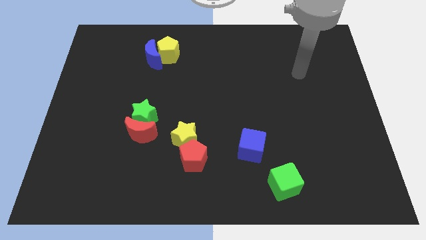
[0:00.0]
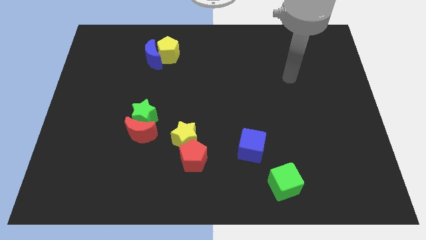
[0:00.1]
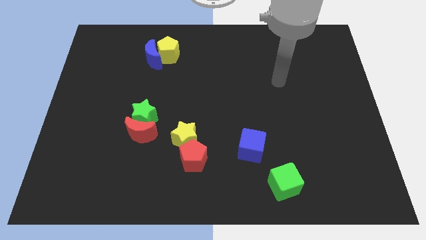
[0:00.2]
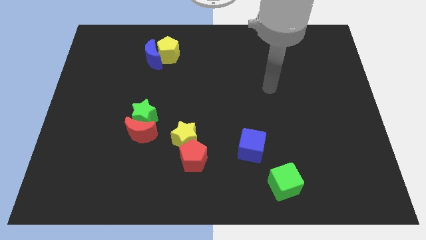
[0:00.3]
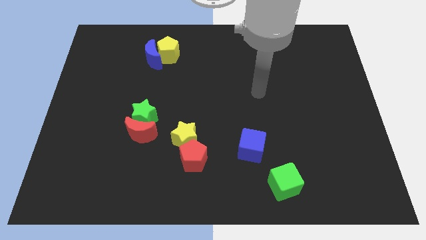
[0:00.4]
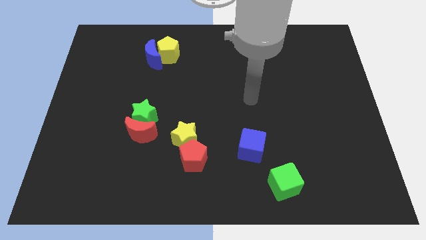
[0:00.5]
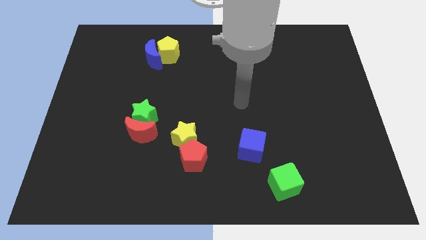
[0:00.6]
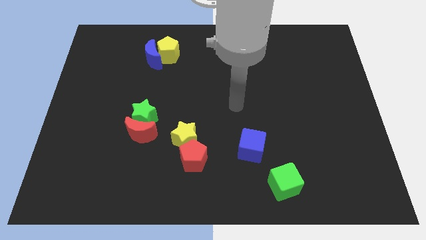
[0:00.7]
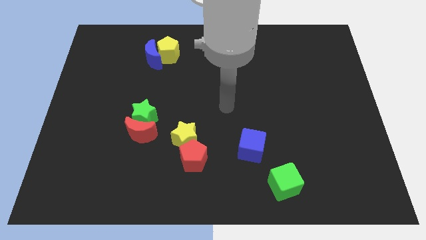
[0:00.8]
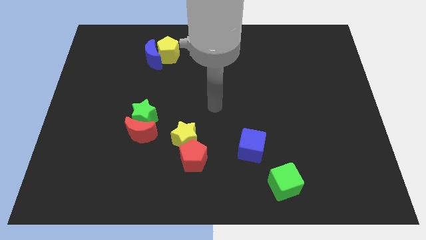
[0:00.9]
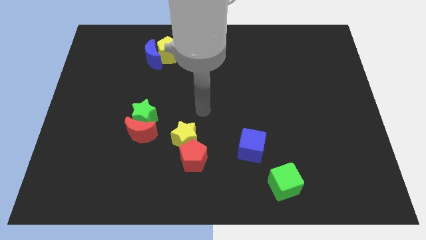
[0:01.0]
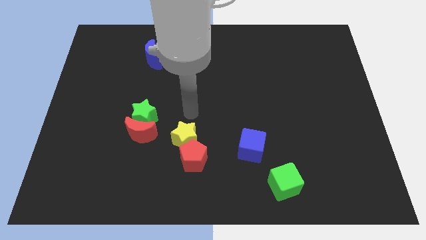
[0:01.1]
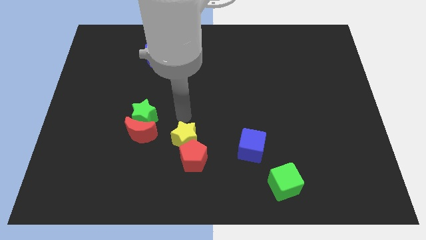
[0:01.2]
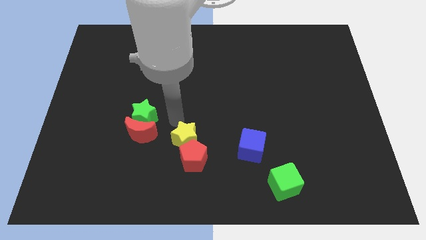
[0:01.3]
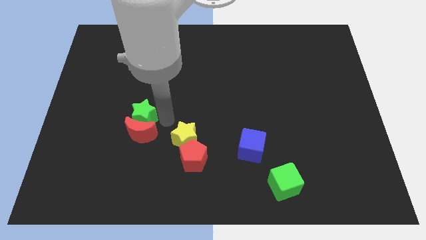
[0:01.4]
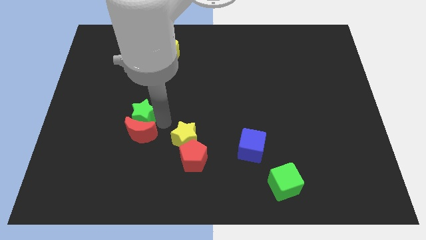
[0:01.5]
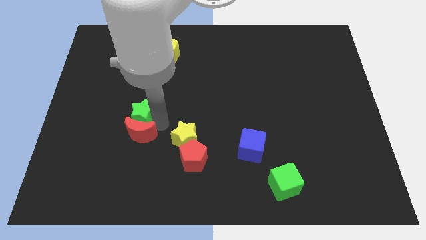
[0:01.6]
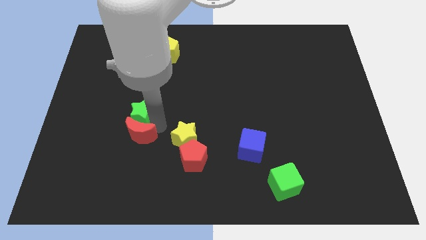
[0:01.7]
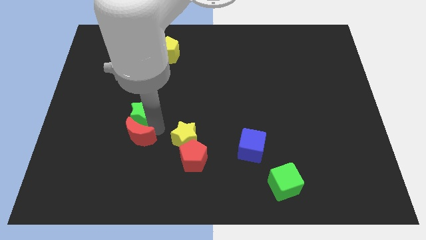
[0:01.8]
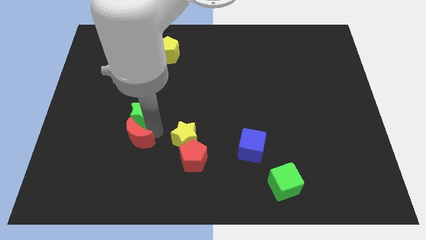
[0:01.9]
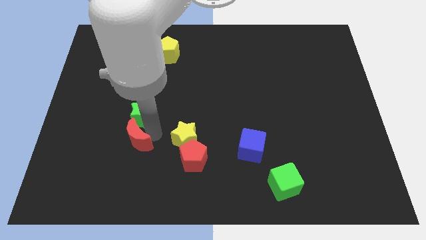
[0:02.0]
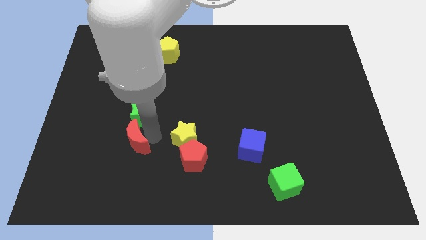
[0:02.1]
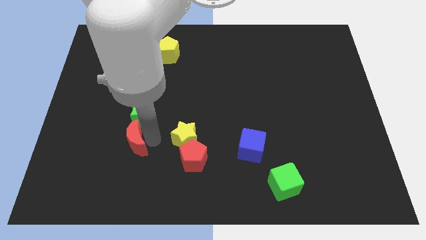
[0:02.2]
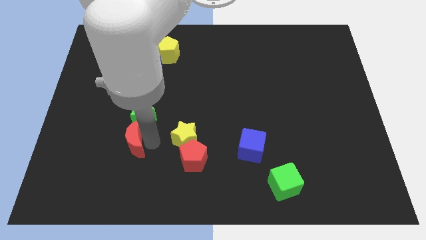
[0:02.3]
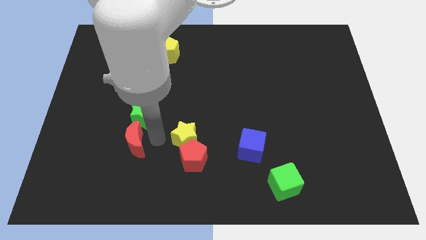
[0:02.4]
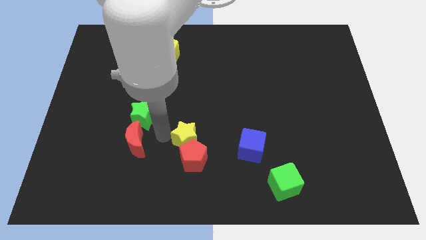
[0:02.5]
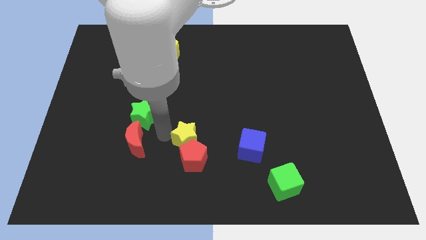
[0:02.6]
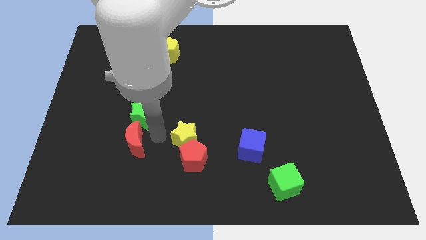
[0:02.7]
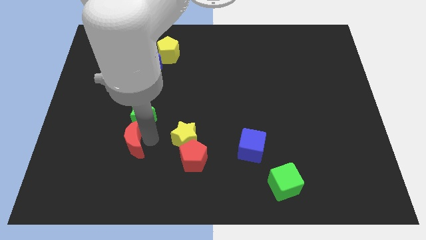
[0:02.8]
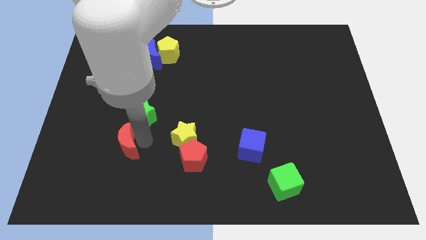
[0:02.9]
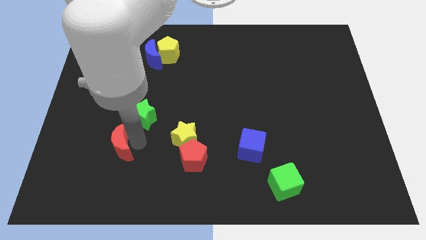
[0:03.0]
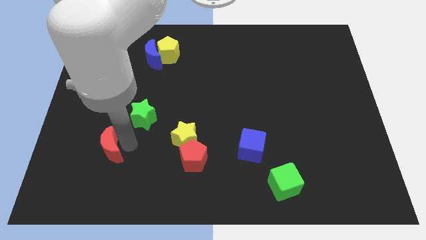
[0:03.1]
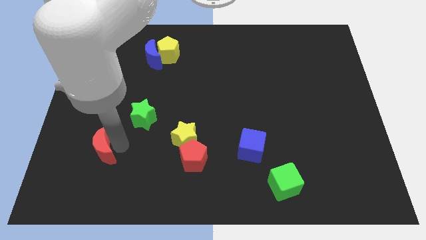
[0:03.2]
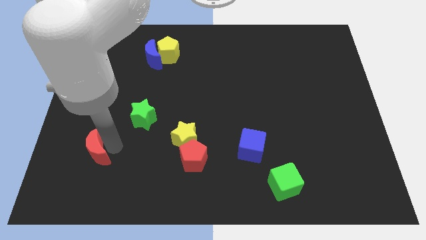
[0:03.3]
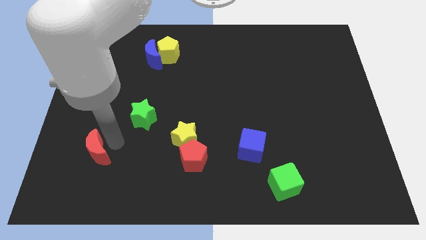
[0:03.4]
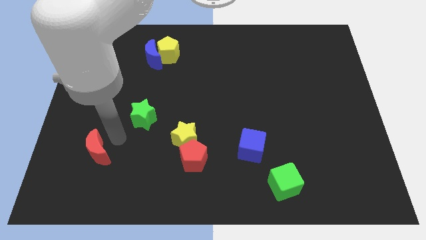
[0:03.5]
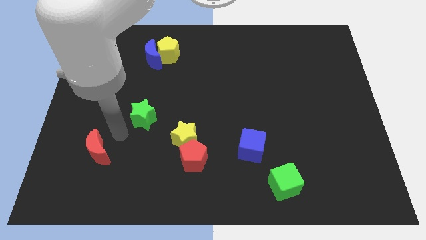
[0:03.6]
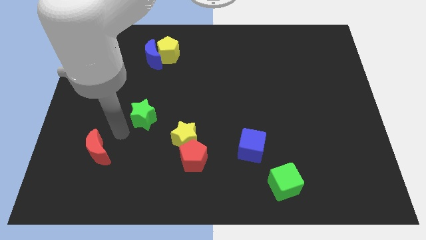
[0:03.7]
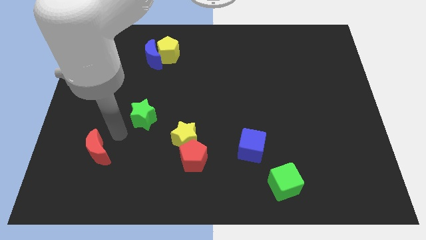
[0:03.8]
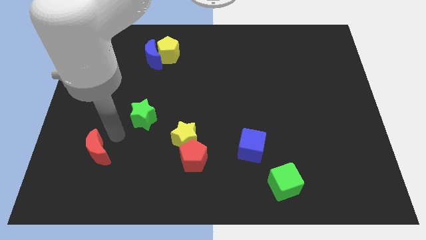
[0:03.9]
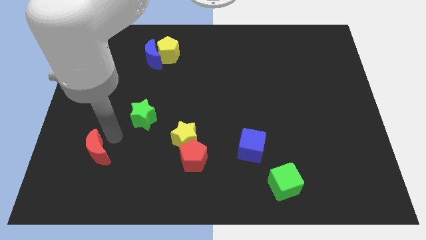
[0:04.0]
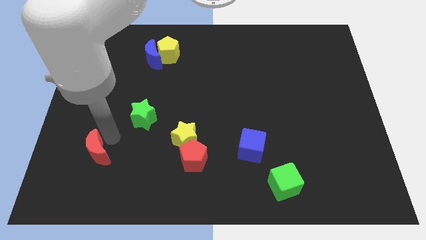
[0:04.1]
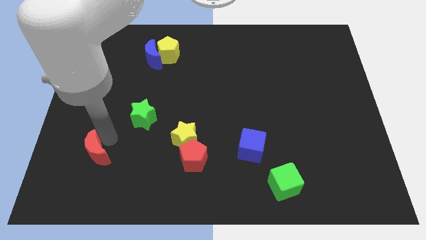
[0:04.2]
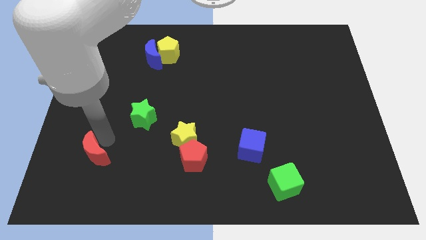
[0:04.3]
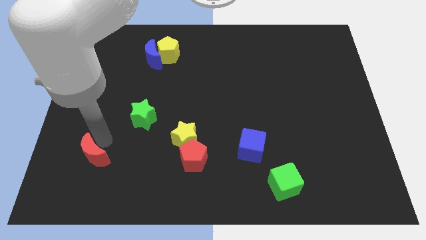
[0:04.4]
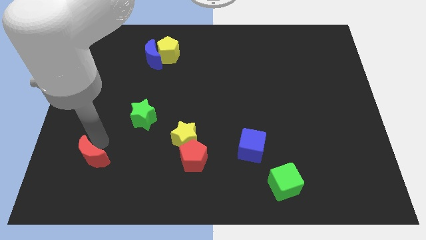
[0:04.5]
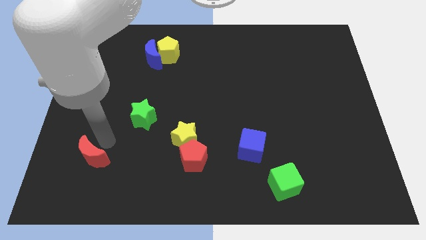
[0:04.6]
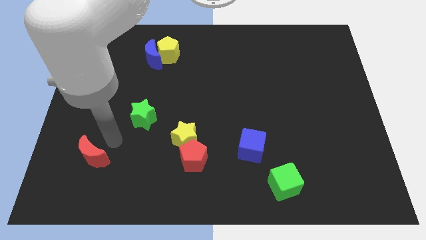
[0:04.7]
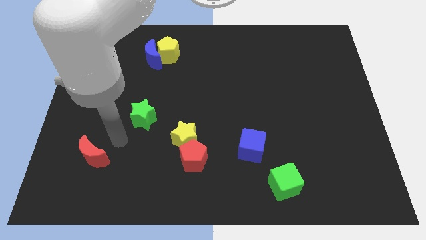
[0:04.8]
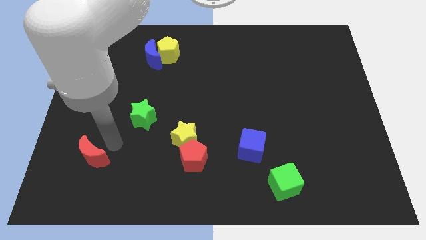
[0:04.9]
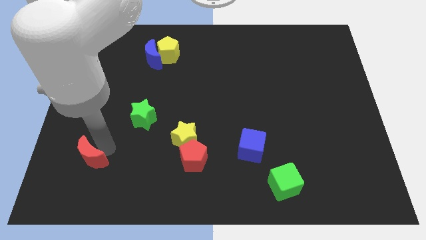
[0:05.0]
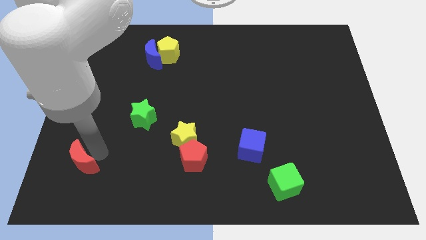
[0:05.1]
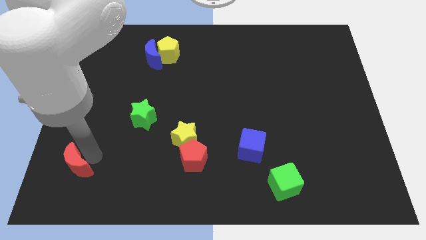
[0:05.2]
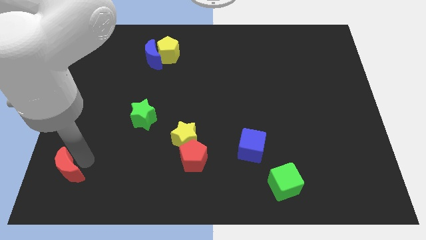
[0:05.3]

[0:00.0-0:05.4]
put the red moon to the lower left corner

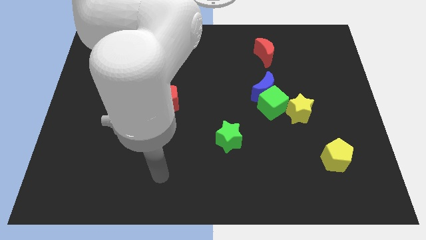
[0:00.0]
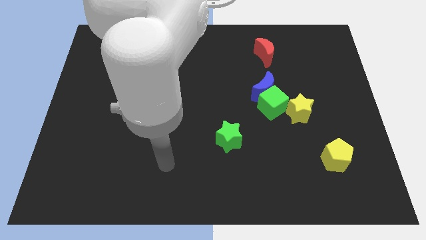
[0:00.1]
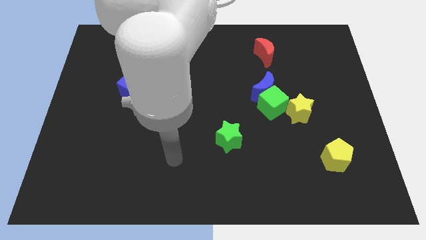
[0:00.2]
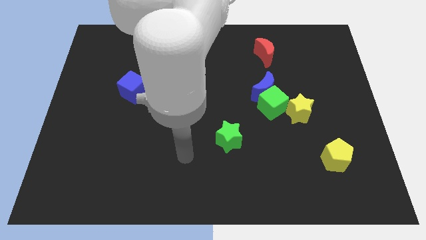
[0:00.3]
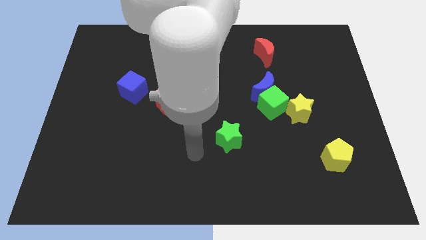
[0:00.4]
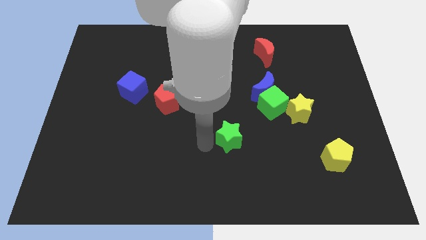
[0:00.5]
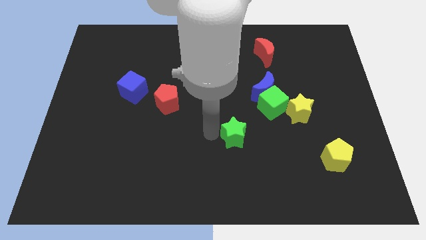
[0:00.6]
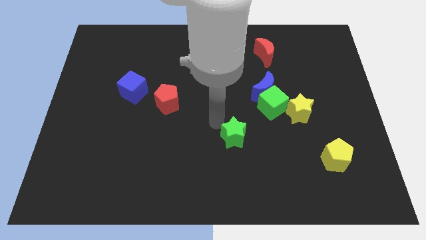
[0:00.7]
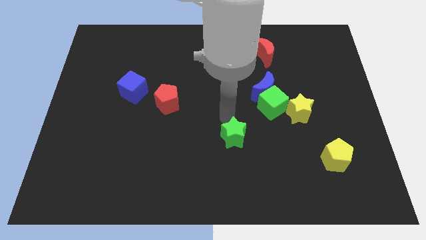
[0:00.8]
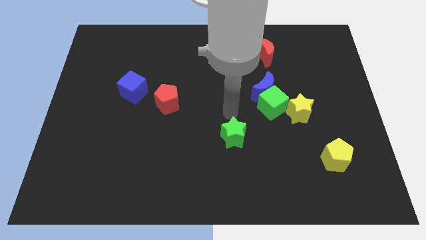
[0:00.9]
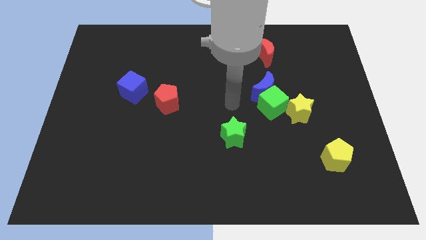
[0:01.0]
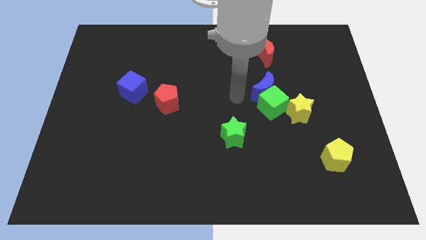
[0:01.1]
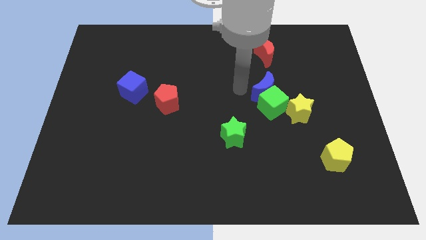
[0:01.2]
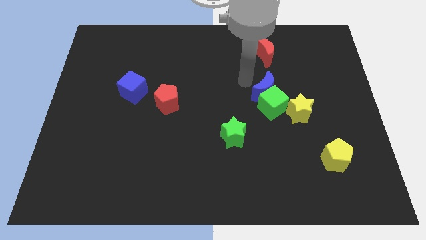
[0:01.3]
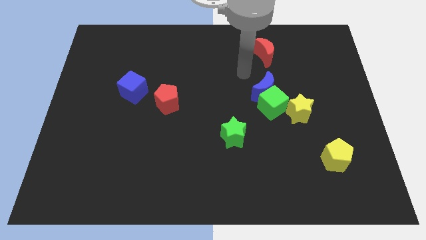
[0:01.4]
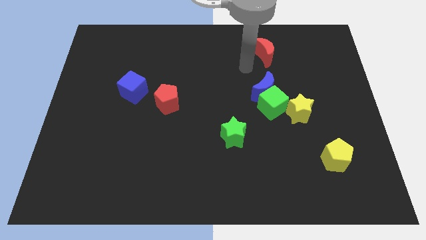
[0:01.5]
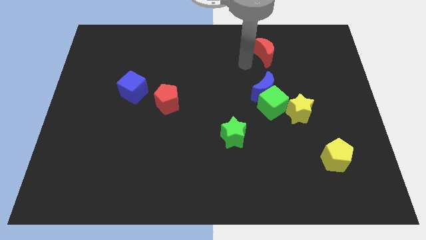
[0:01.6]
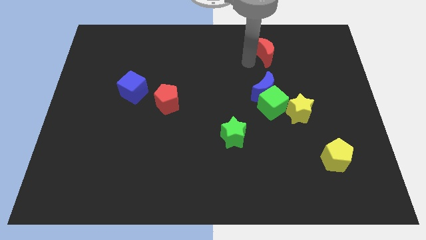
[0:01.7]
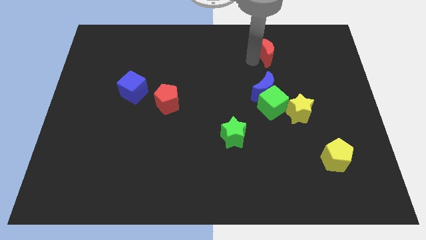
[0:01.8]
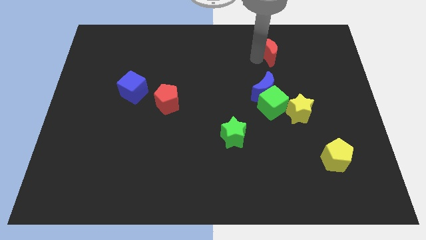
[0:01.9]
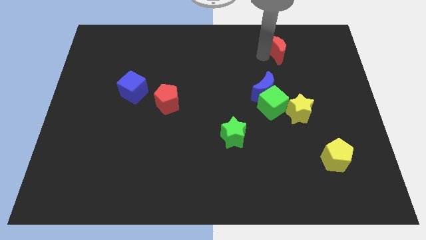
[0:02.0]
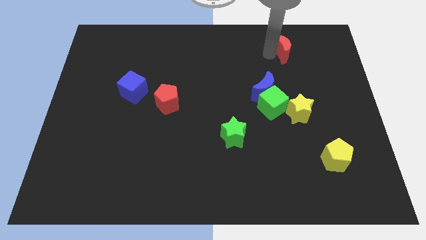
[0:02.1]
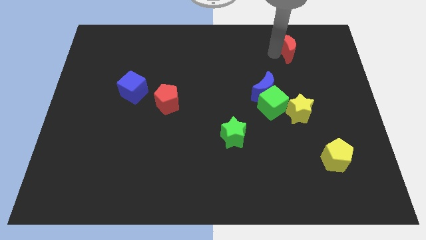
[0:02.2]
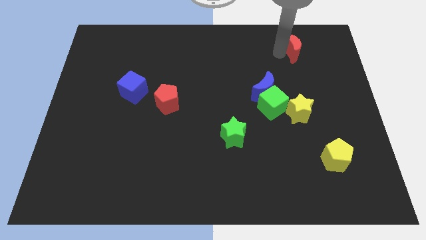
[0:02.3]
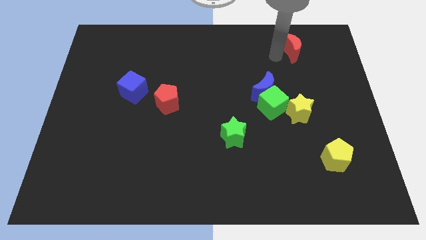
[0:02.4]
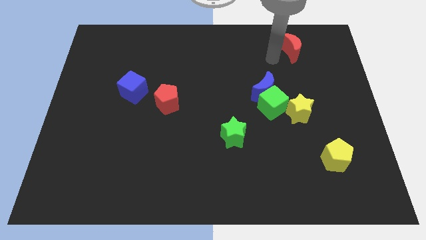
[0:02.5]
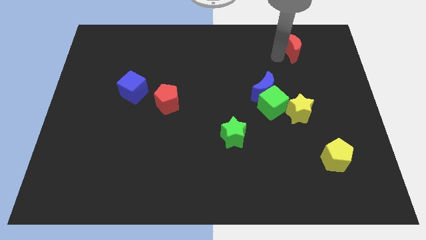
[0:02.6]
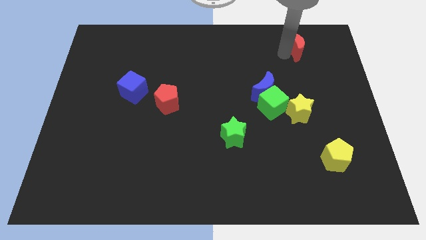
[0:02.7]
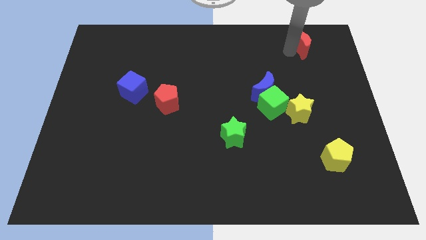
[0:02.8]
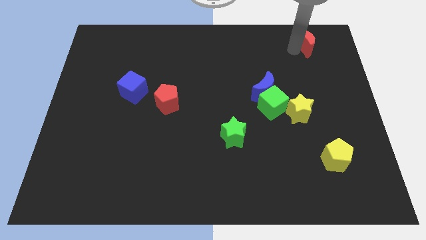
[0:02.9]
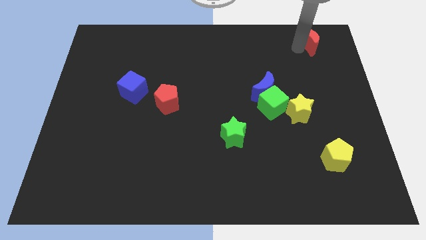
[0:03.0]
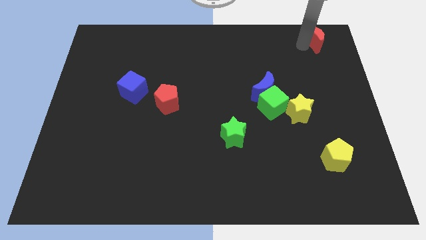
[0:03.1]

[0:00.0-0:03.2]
move the red moon to the top right
